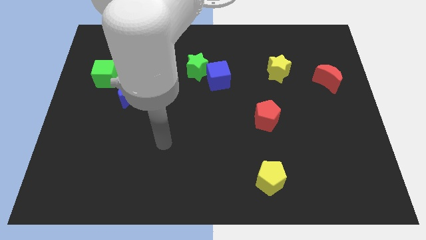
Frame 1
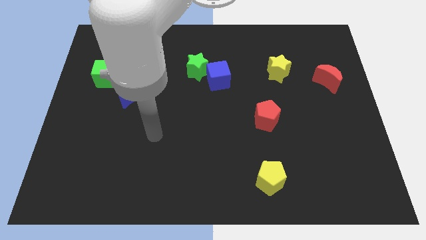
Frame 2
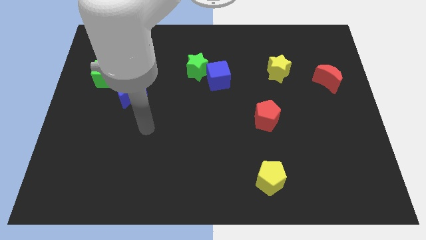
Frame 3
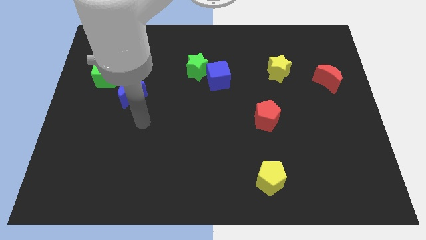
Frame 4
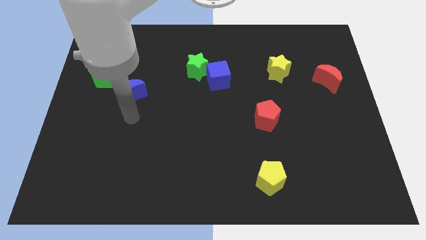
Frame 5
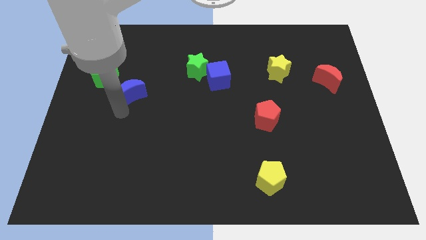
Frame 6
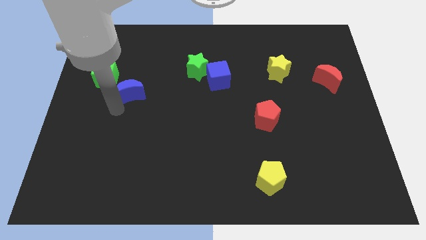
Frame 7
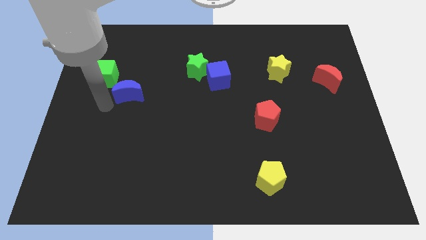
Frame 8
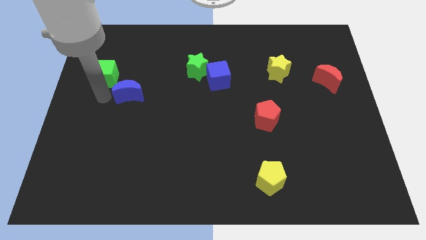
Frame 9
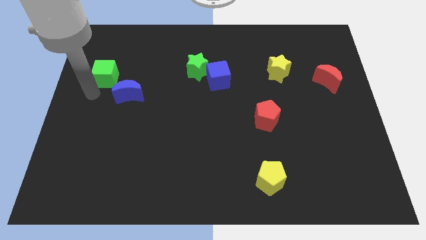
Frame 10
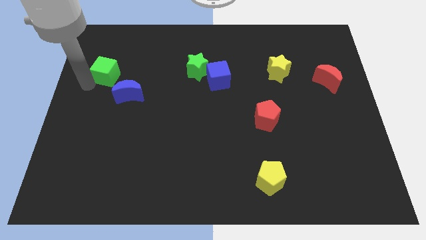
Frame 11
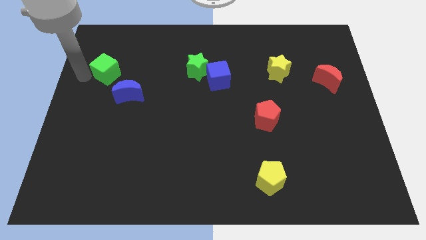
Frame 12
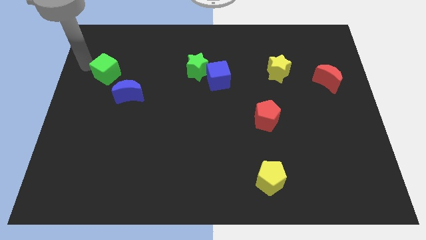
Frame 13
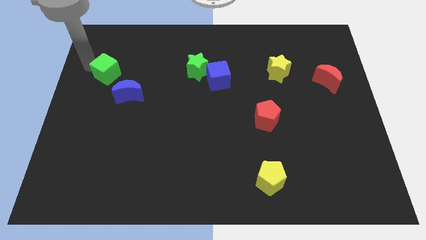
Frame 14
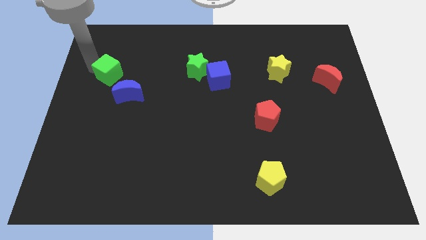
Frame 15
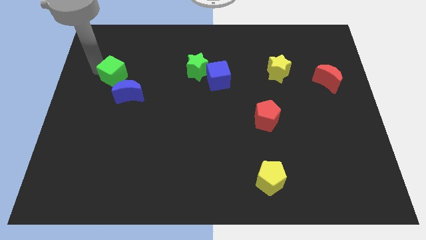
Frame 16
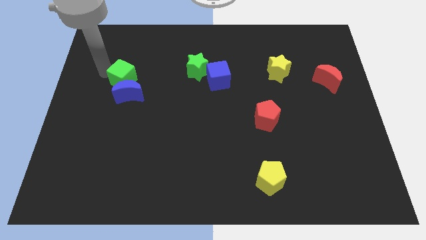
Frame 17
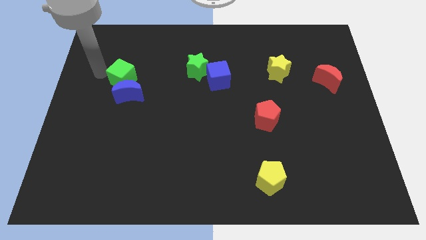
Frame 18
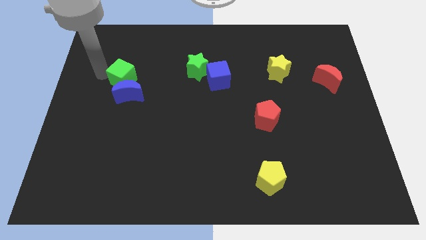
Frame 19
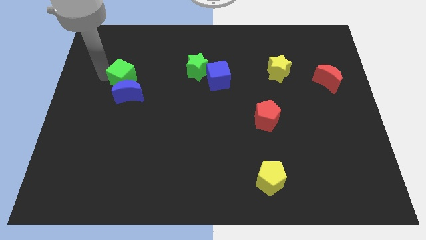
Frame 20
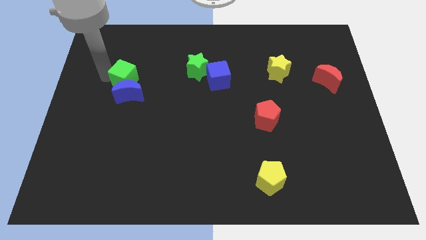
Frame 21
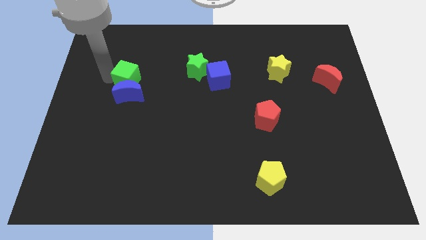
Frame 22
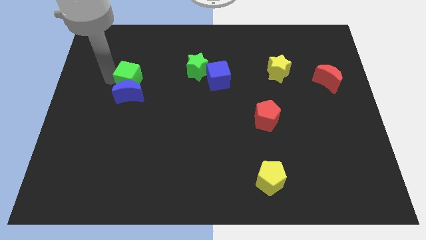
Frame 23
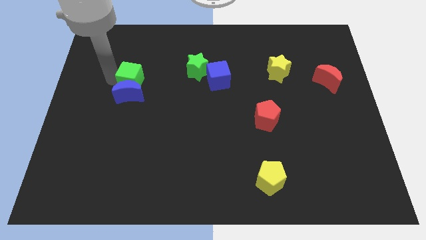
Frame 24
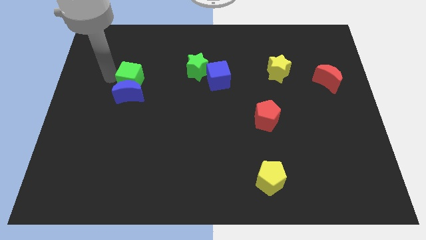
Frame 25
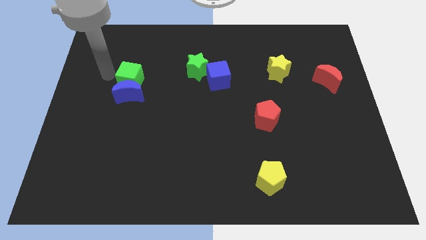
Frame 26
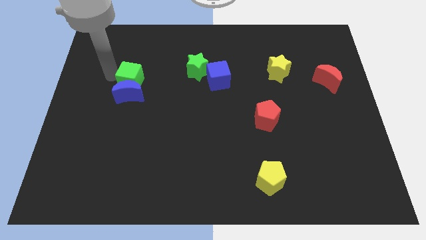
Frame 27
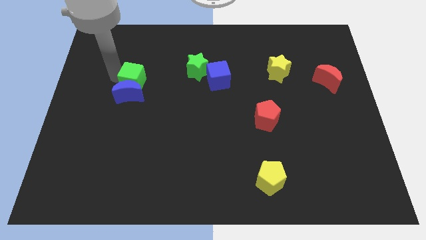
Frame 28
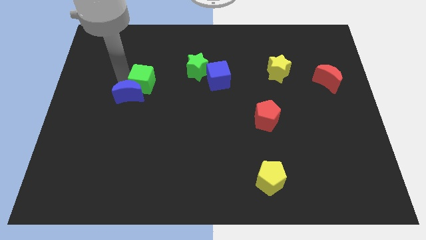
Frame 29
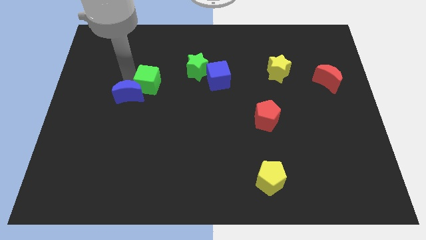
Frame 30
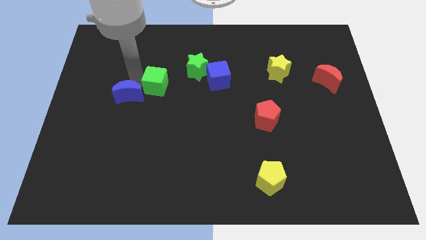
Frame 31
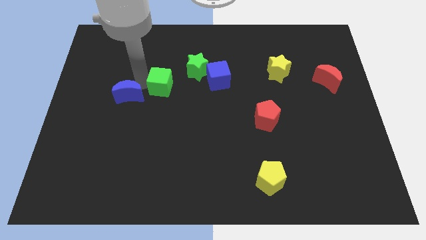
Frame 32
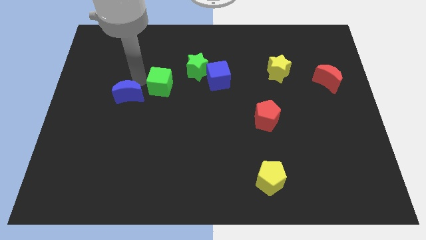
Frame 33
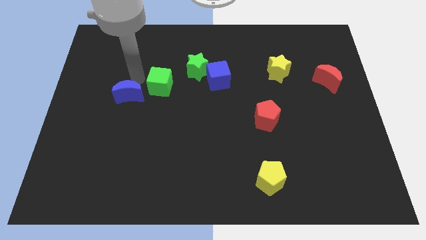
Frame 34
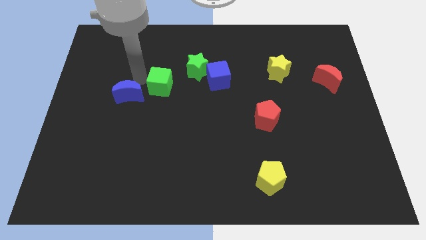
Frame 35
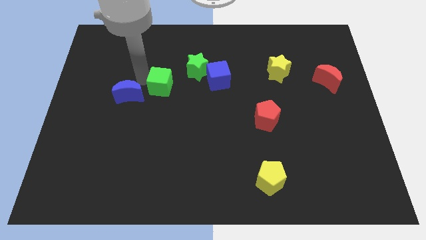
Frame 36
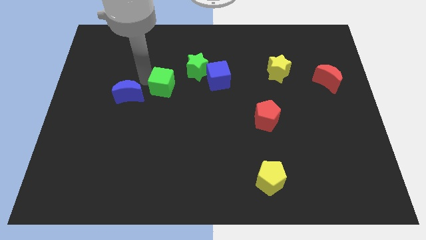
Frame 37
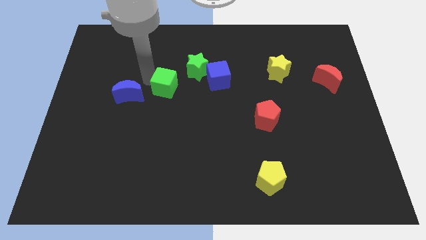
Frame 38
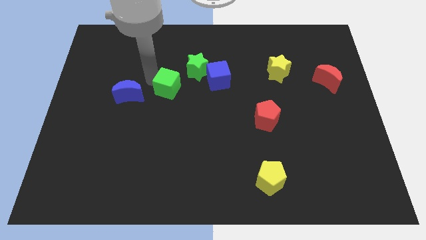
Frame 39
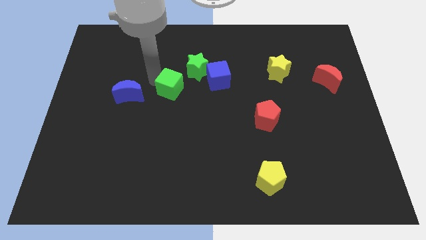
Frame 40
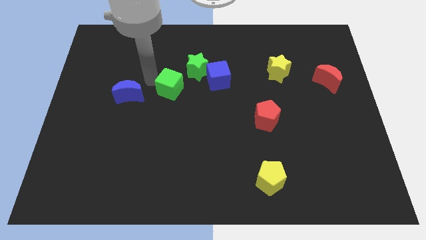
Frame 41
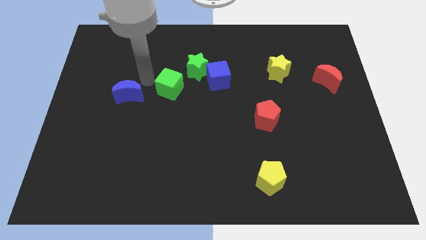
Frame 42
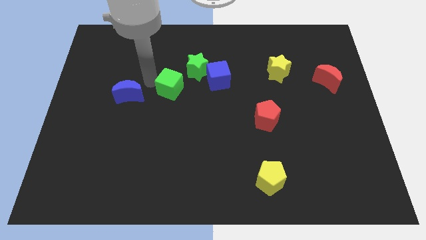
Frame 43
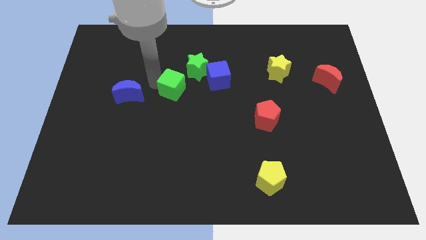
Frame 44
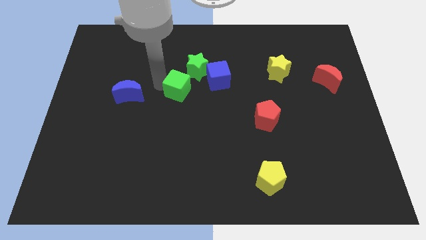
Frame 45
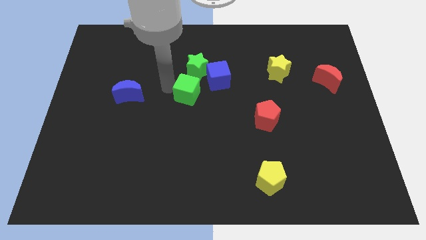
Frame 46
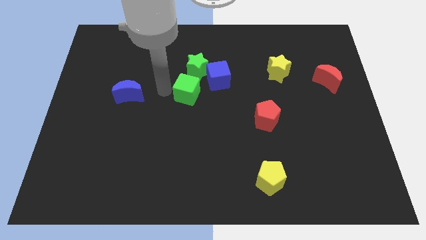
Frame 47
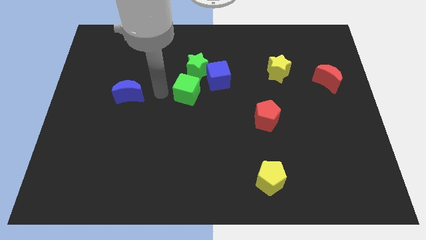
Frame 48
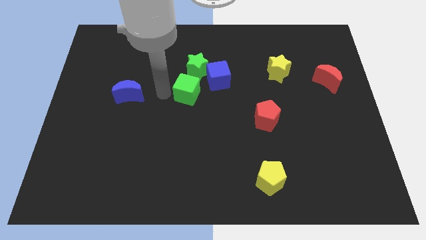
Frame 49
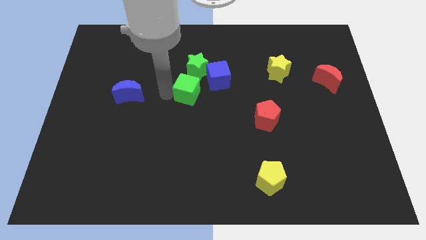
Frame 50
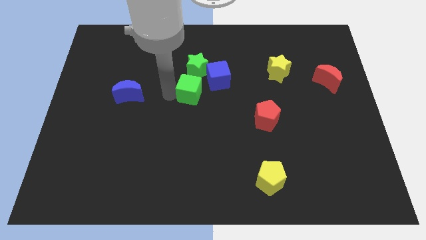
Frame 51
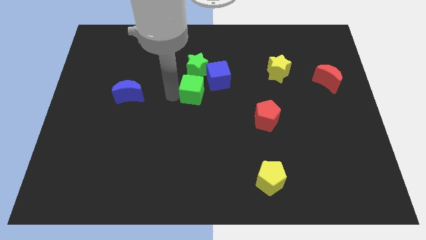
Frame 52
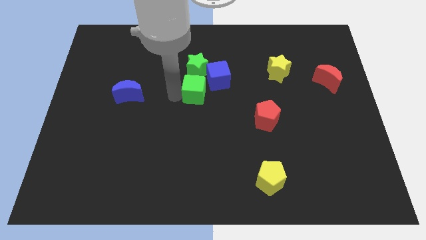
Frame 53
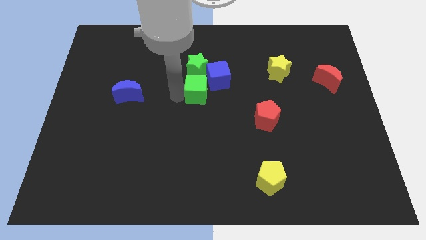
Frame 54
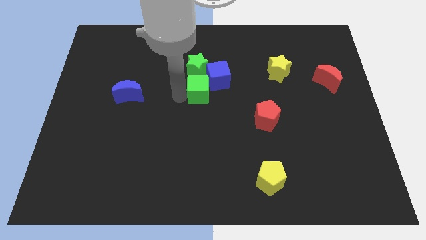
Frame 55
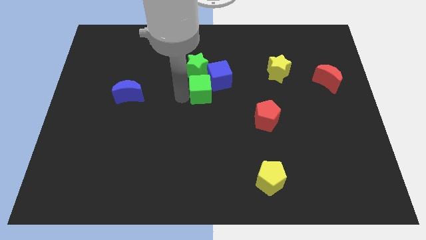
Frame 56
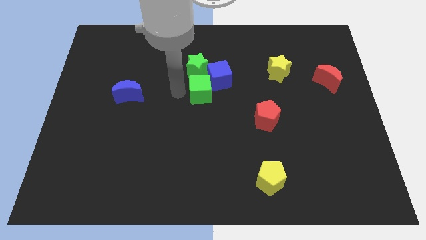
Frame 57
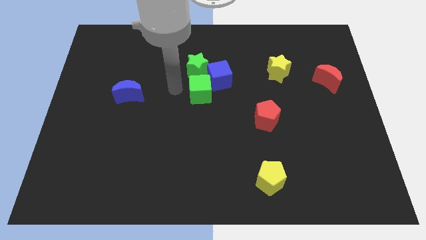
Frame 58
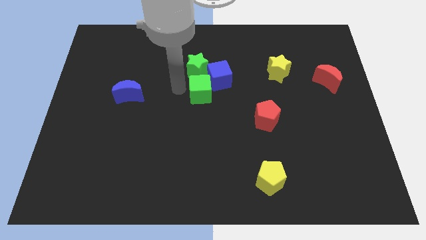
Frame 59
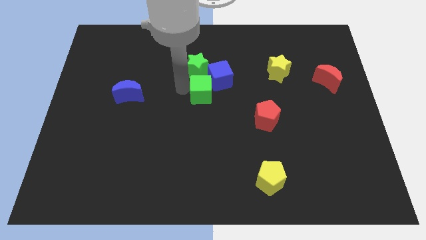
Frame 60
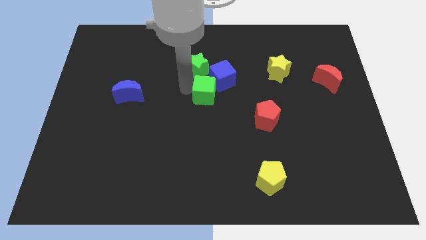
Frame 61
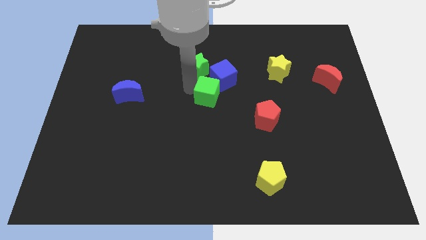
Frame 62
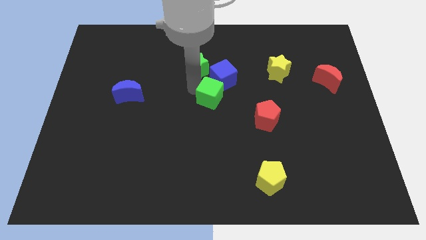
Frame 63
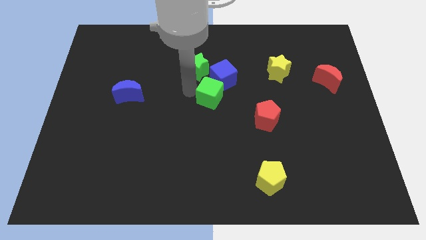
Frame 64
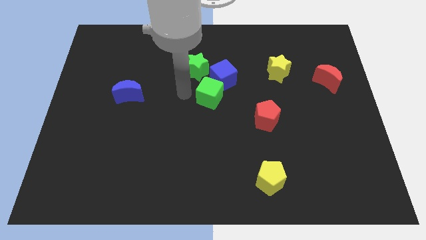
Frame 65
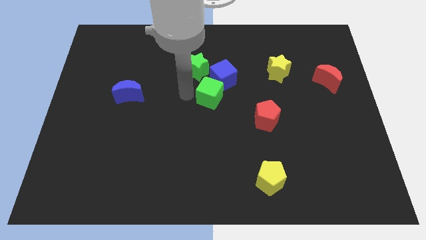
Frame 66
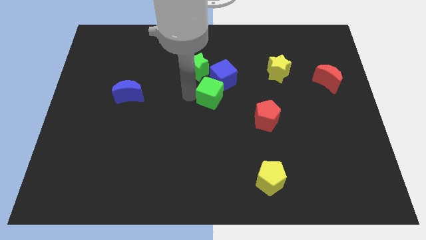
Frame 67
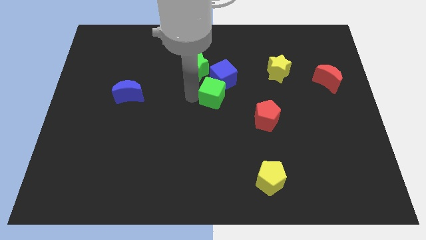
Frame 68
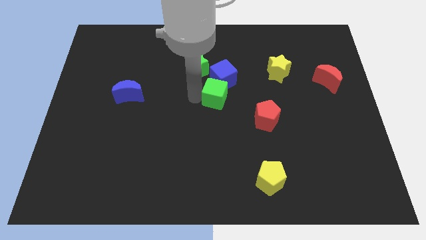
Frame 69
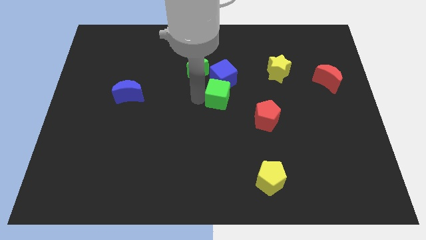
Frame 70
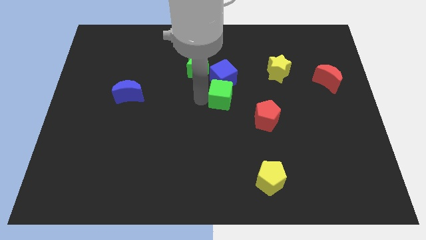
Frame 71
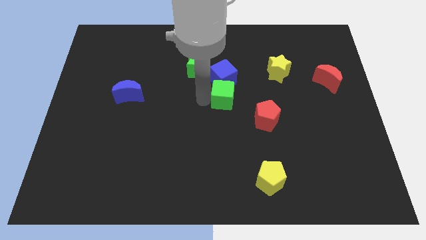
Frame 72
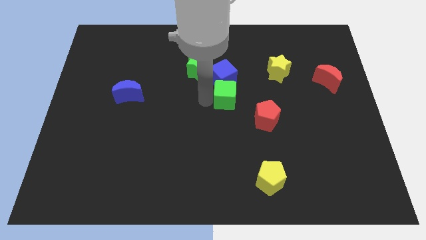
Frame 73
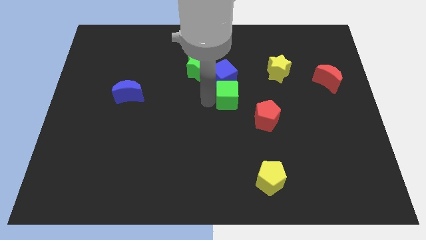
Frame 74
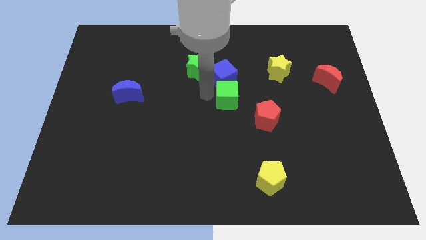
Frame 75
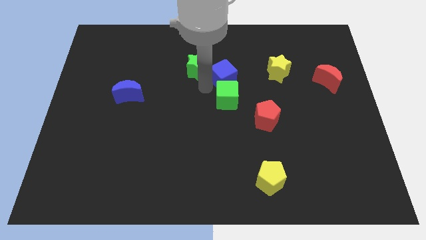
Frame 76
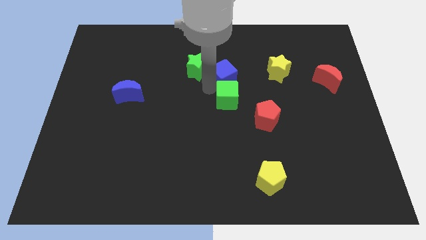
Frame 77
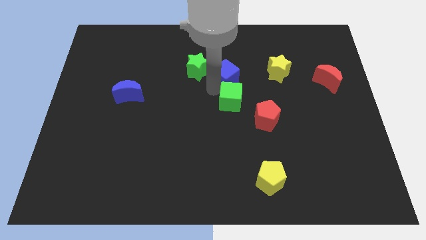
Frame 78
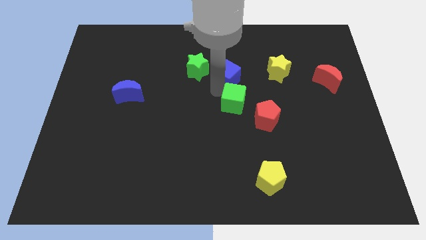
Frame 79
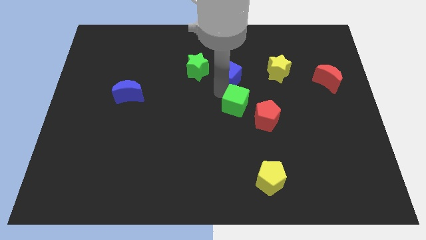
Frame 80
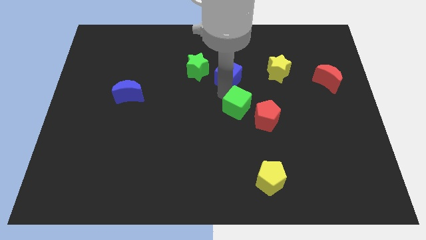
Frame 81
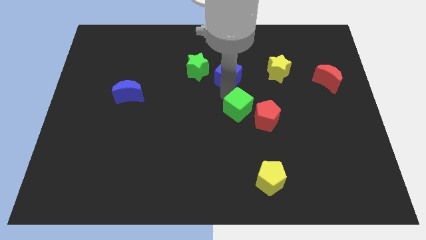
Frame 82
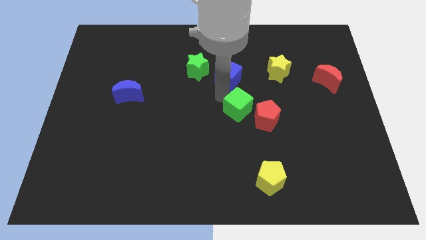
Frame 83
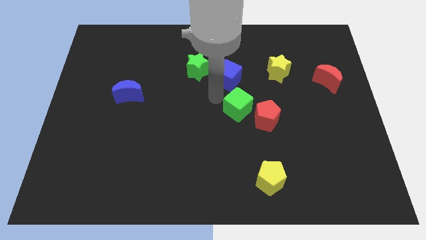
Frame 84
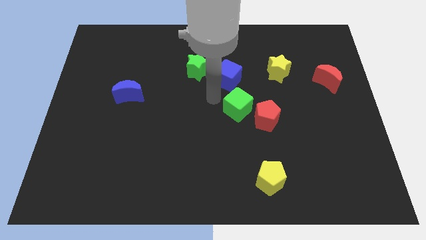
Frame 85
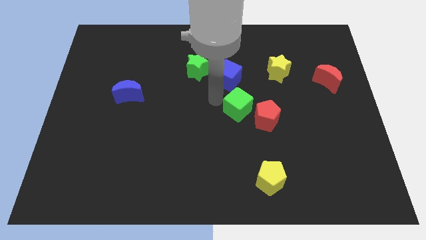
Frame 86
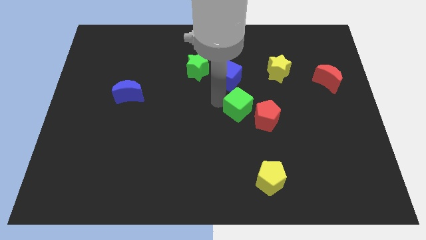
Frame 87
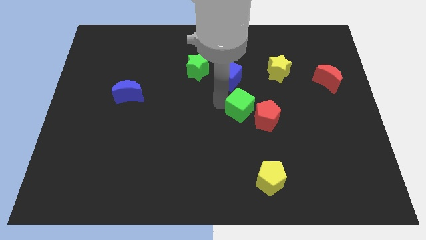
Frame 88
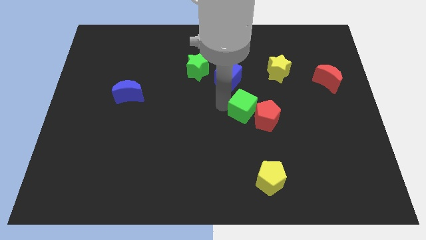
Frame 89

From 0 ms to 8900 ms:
move the green cube towards the red pentagon
